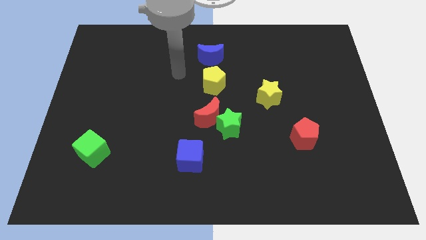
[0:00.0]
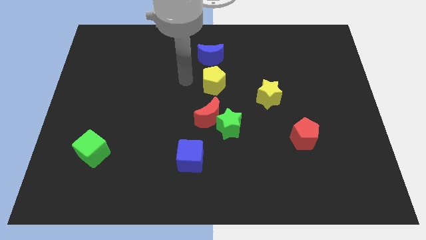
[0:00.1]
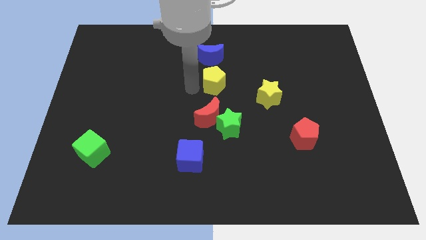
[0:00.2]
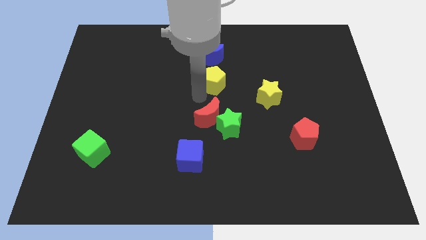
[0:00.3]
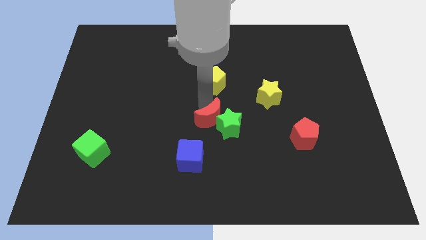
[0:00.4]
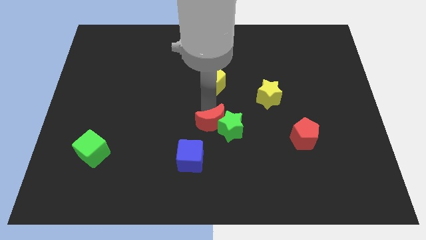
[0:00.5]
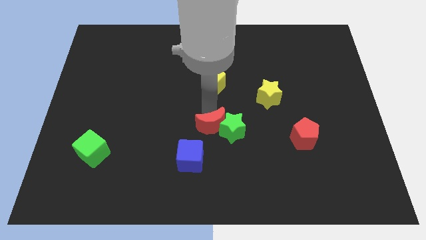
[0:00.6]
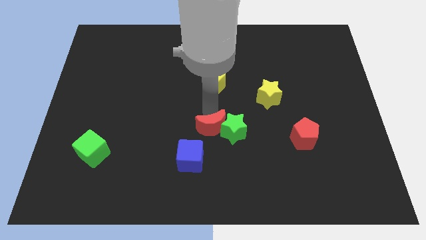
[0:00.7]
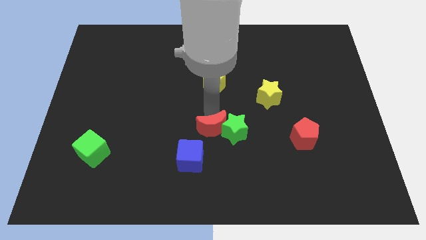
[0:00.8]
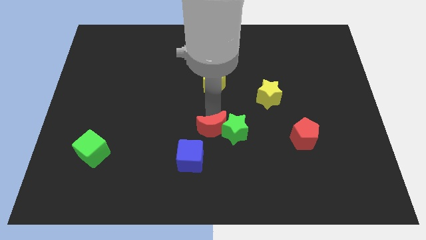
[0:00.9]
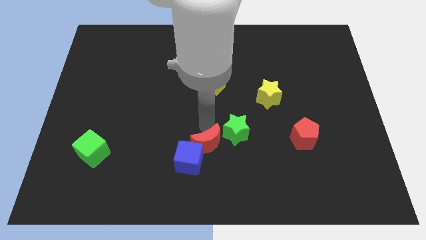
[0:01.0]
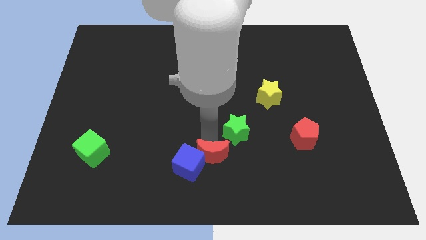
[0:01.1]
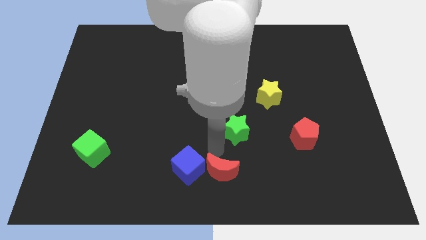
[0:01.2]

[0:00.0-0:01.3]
pull the green star apart from the red moon

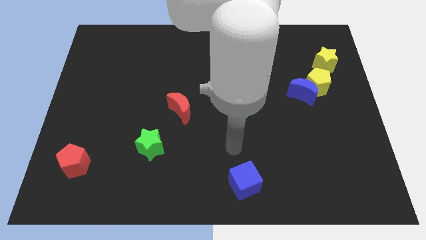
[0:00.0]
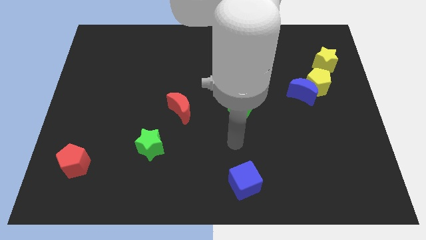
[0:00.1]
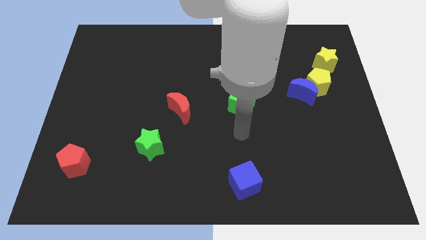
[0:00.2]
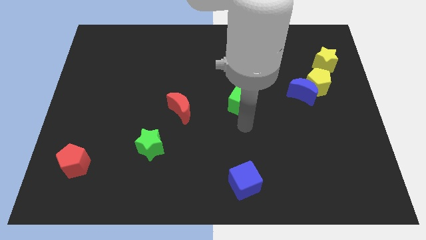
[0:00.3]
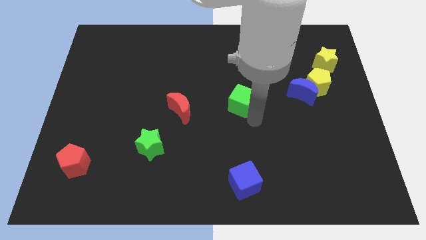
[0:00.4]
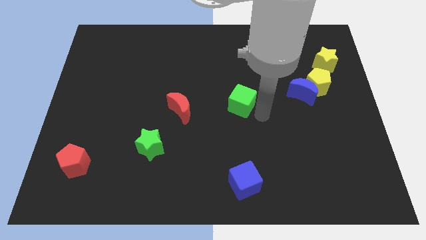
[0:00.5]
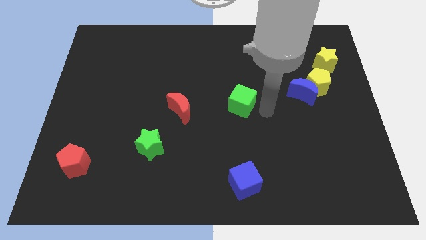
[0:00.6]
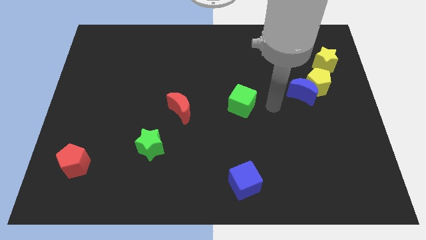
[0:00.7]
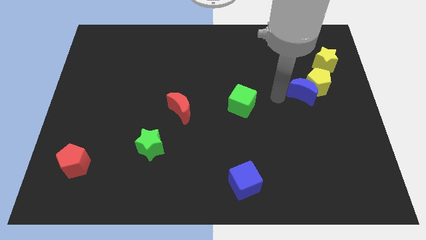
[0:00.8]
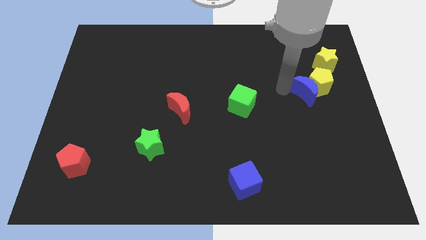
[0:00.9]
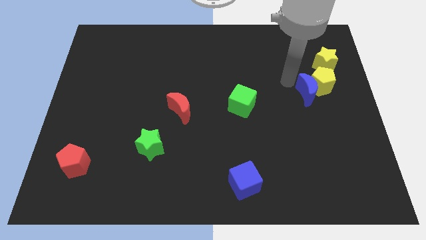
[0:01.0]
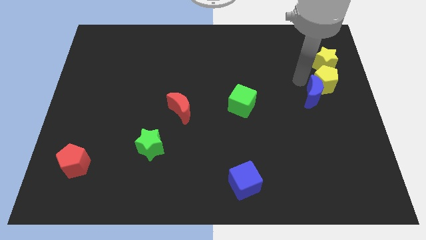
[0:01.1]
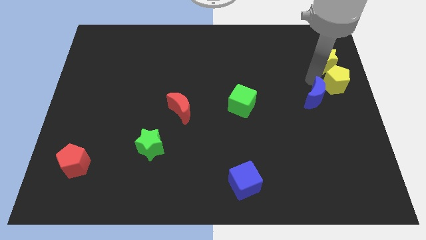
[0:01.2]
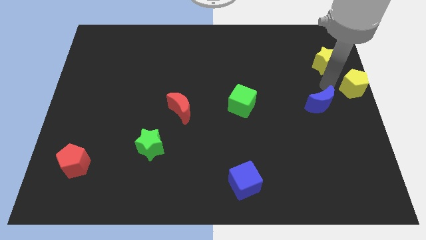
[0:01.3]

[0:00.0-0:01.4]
move the blue moon away from the yellow pentagon

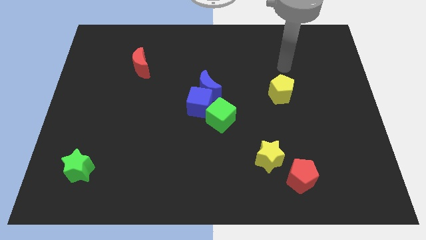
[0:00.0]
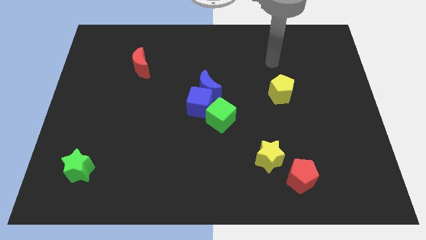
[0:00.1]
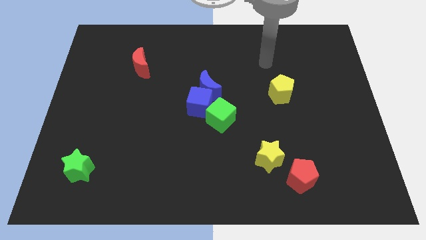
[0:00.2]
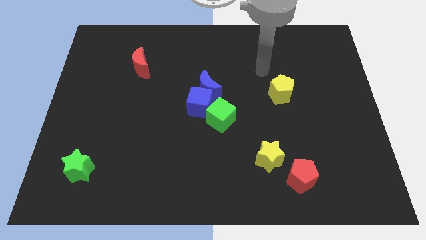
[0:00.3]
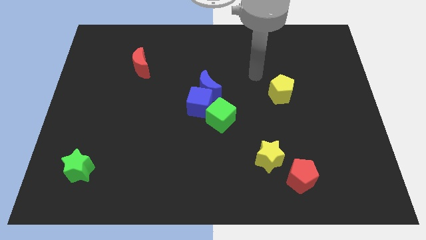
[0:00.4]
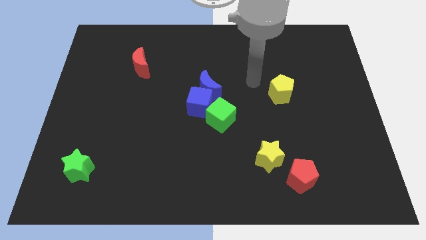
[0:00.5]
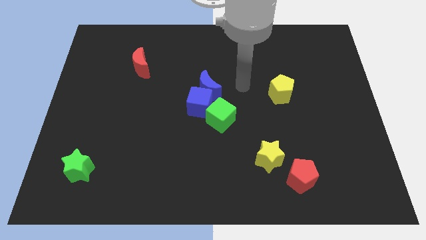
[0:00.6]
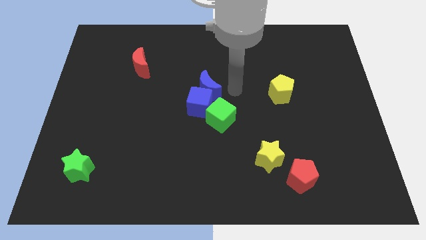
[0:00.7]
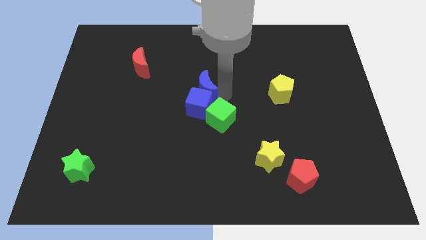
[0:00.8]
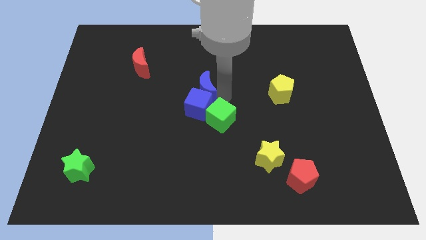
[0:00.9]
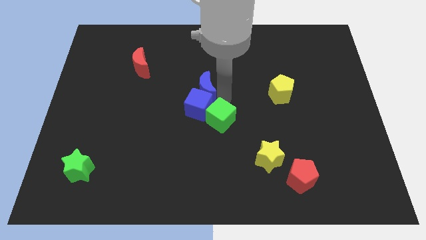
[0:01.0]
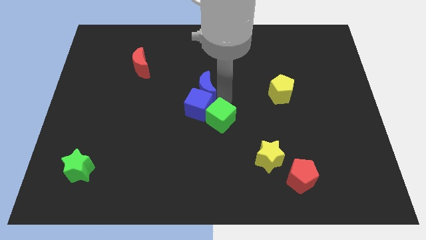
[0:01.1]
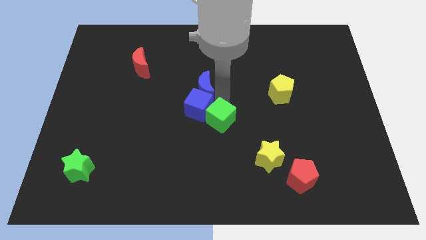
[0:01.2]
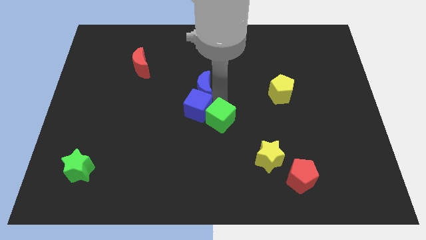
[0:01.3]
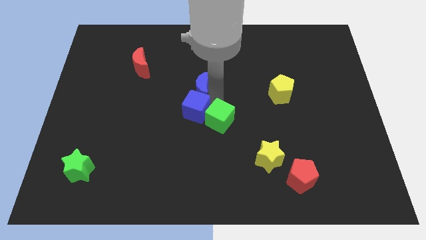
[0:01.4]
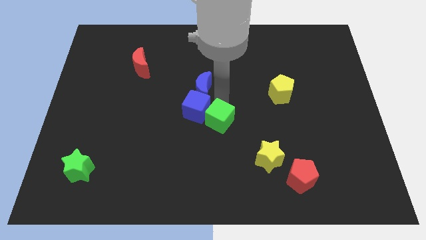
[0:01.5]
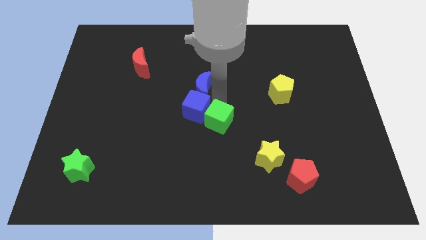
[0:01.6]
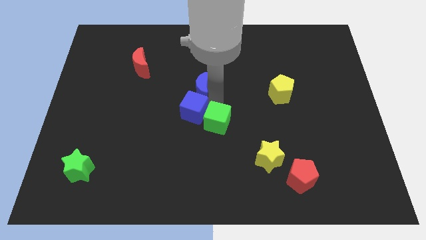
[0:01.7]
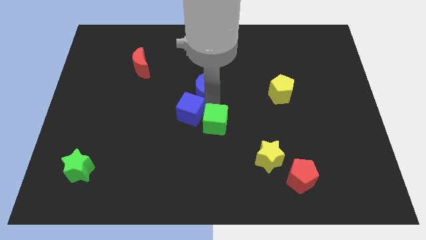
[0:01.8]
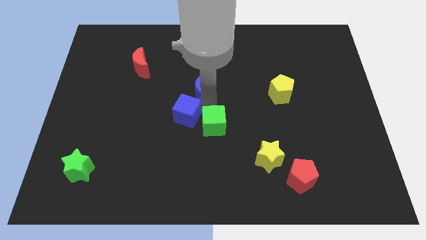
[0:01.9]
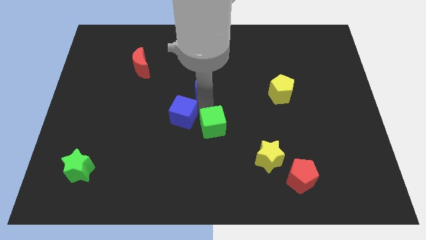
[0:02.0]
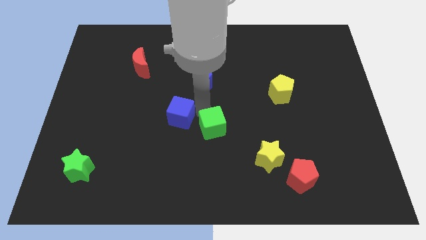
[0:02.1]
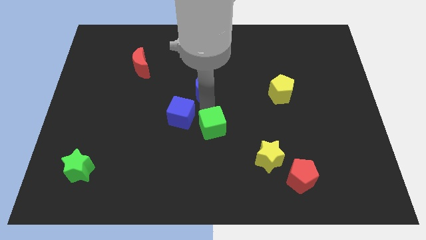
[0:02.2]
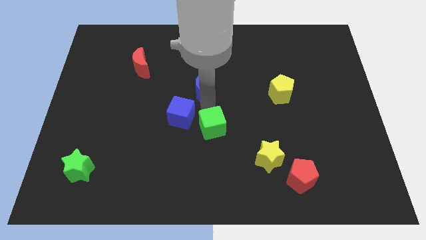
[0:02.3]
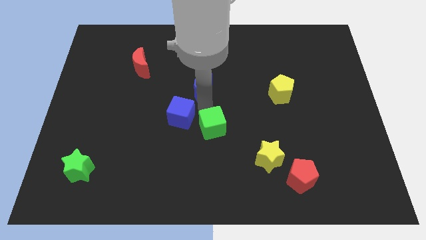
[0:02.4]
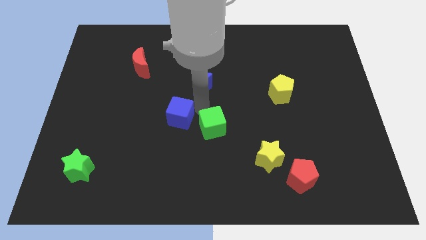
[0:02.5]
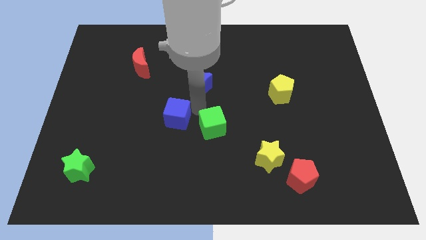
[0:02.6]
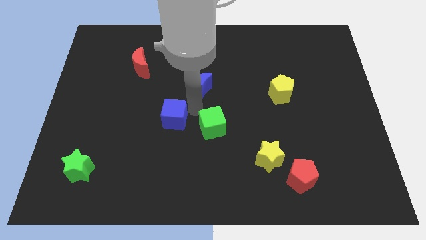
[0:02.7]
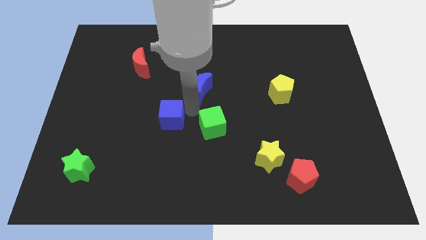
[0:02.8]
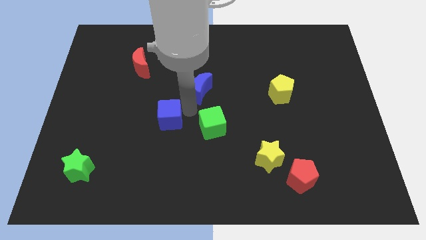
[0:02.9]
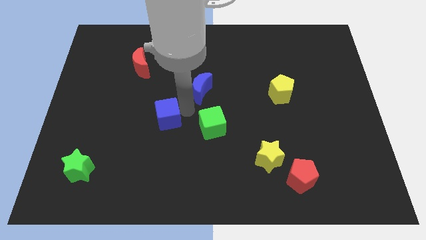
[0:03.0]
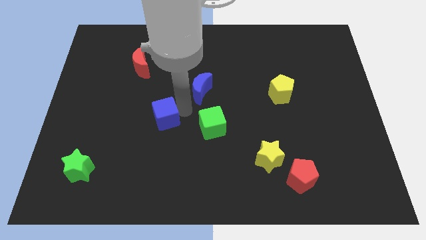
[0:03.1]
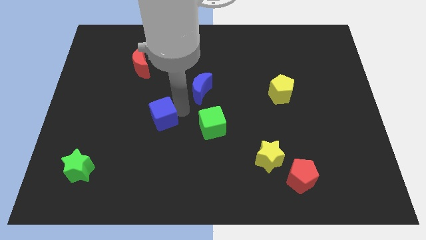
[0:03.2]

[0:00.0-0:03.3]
move the blue cube away from the blue moon and green cube

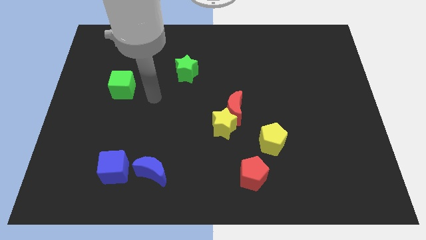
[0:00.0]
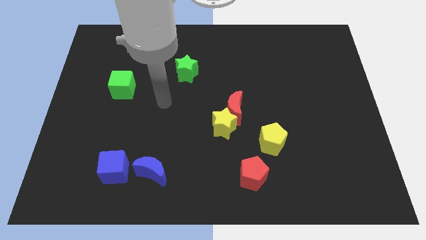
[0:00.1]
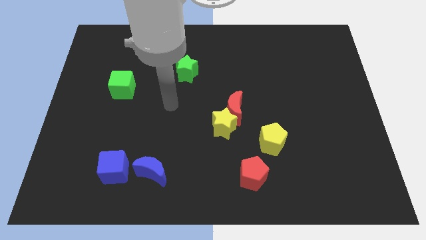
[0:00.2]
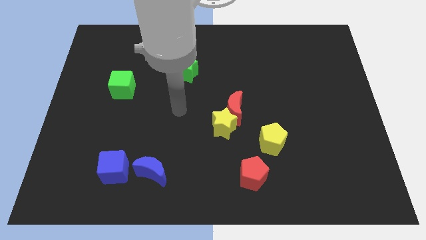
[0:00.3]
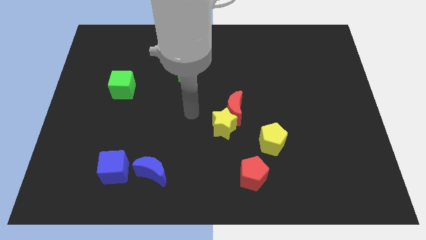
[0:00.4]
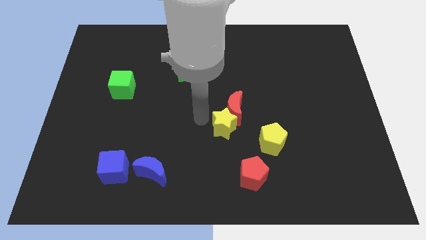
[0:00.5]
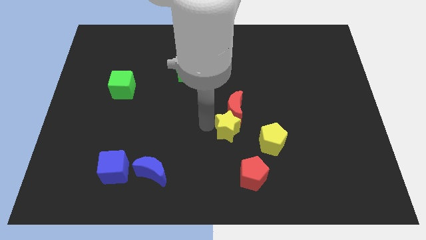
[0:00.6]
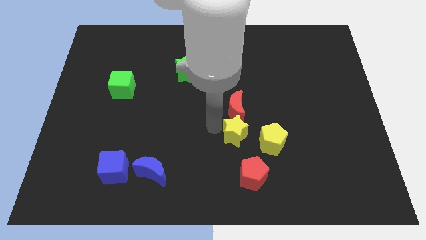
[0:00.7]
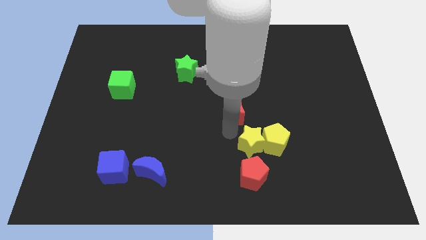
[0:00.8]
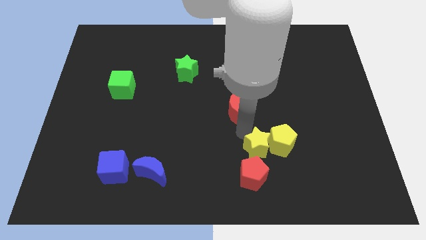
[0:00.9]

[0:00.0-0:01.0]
pull the red moon apart from the yellow star

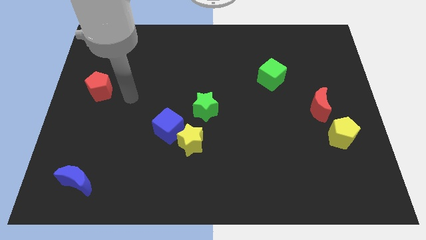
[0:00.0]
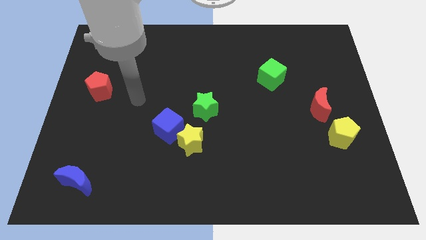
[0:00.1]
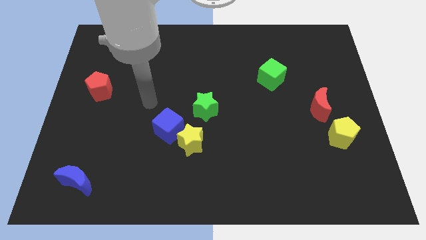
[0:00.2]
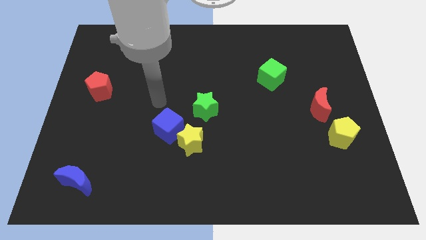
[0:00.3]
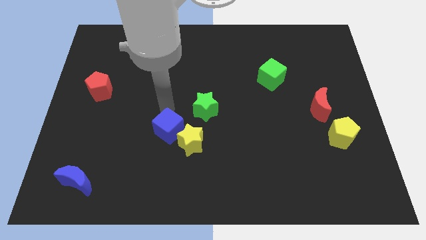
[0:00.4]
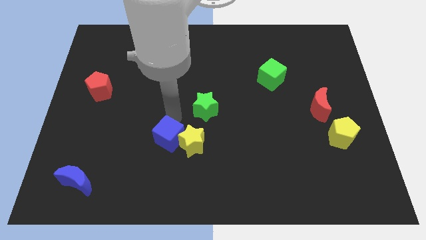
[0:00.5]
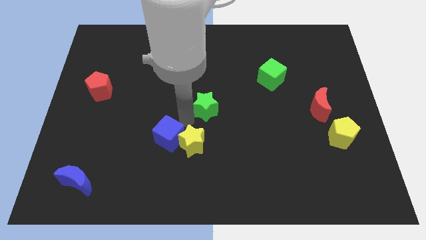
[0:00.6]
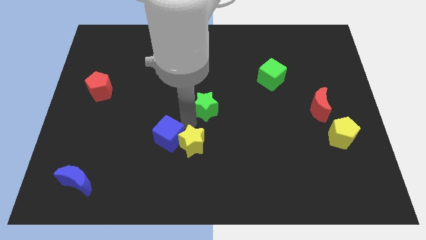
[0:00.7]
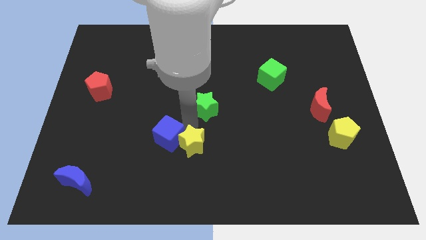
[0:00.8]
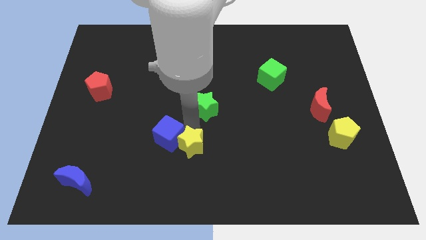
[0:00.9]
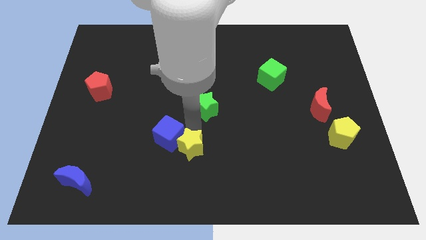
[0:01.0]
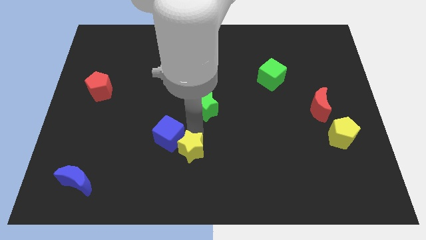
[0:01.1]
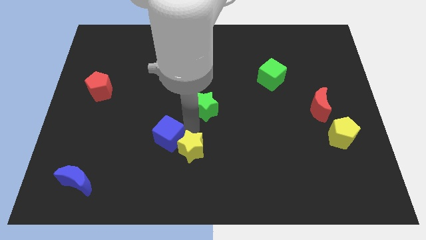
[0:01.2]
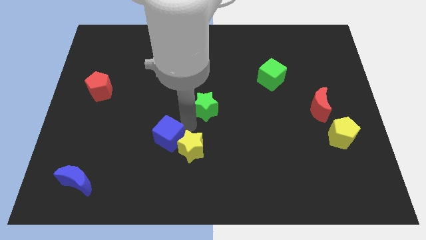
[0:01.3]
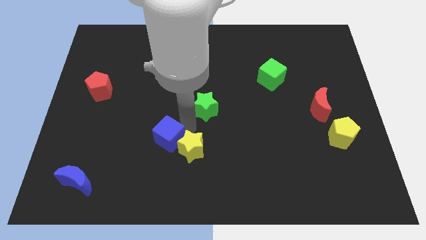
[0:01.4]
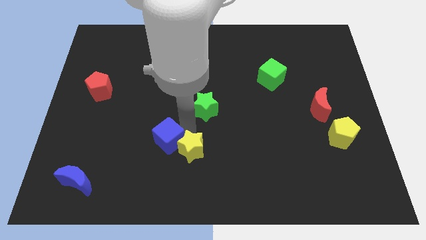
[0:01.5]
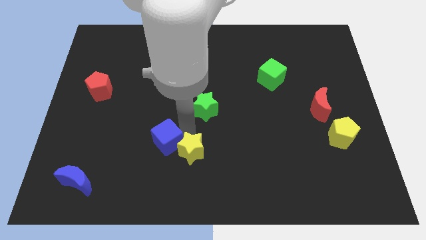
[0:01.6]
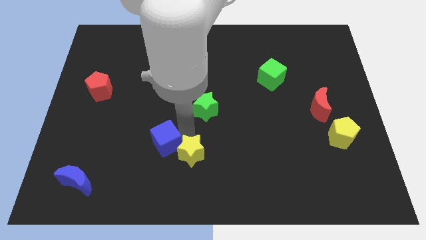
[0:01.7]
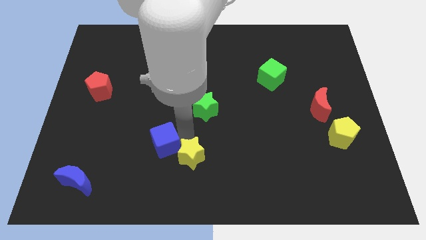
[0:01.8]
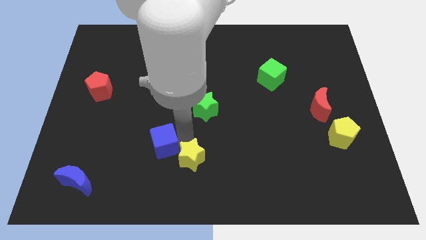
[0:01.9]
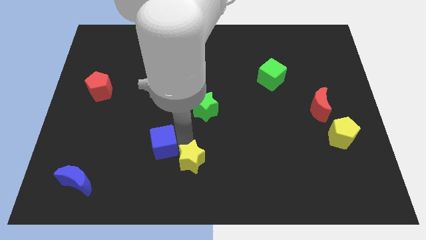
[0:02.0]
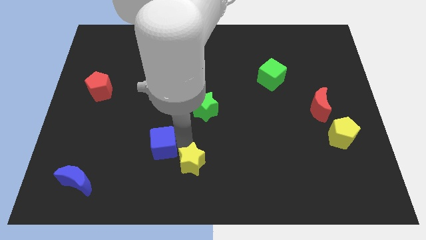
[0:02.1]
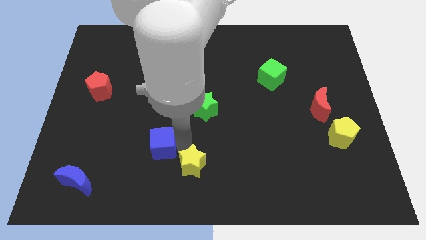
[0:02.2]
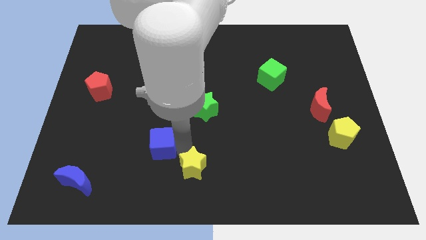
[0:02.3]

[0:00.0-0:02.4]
pull the yellow star apart from the blue cube and green star
